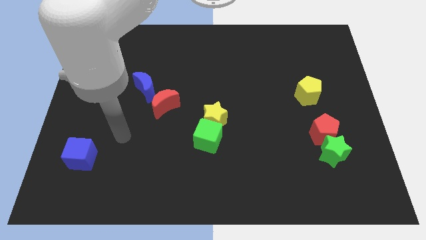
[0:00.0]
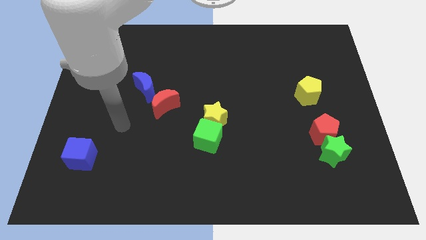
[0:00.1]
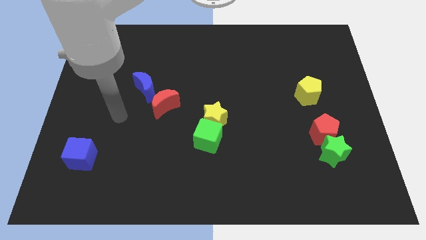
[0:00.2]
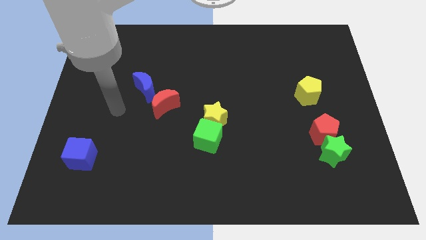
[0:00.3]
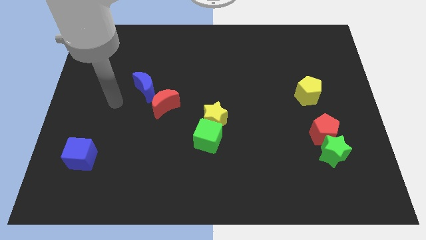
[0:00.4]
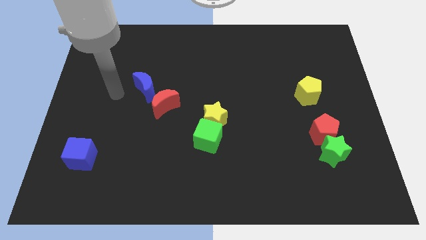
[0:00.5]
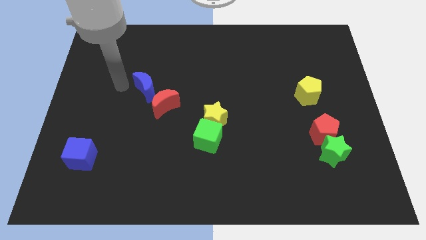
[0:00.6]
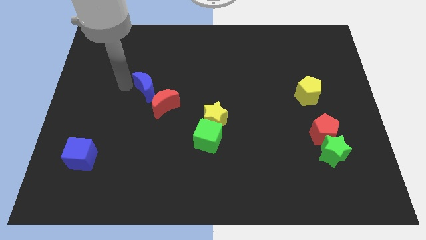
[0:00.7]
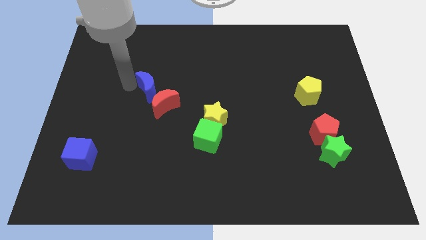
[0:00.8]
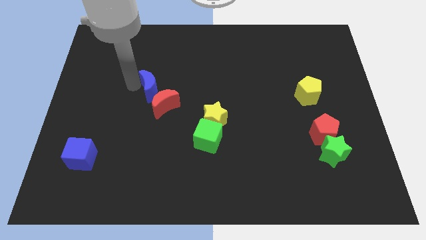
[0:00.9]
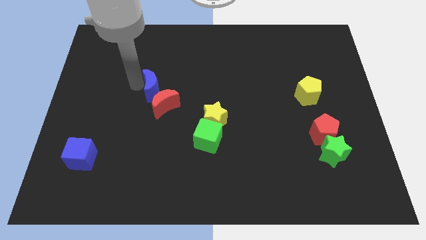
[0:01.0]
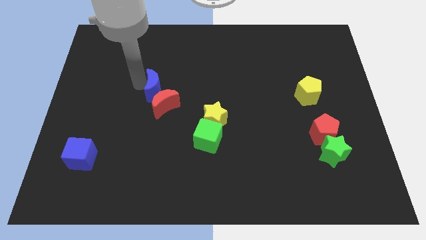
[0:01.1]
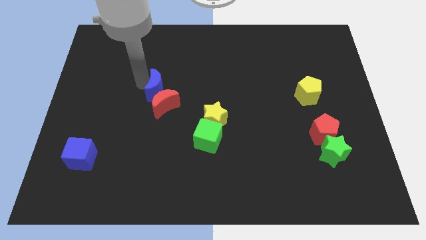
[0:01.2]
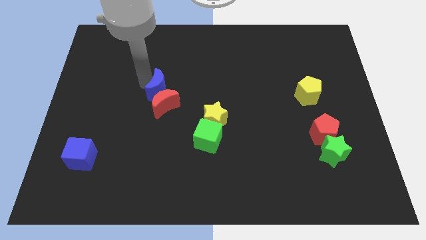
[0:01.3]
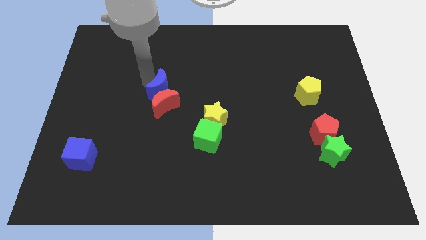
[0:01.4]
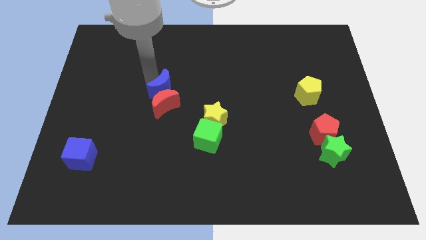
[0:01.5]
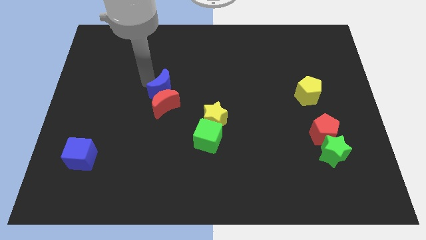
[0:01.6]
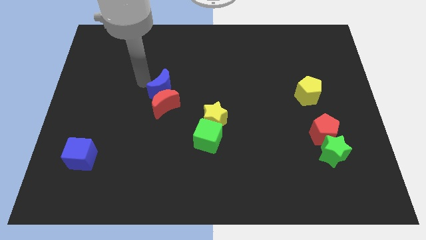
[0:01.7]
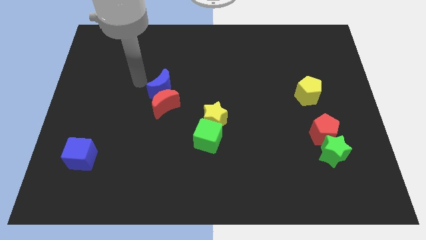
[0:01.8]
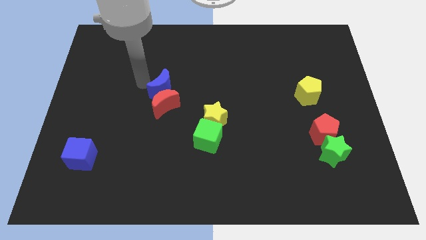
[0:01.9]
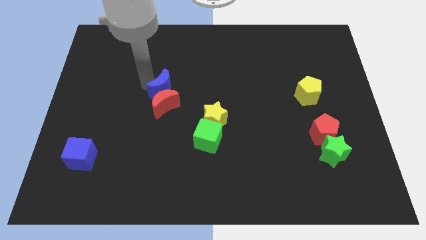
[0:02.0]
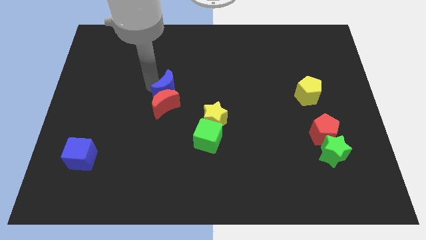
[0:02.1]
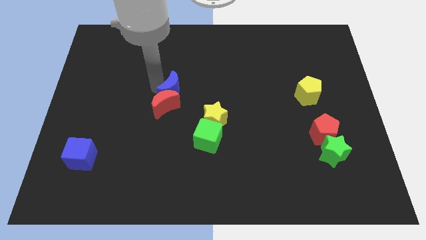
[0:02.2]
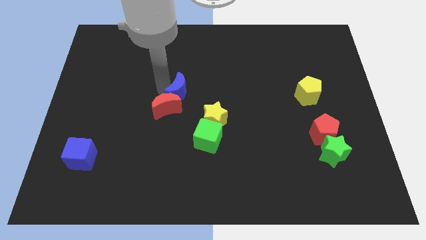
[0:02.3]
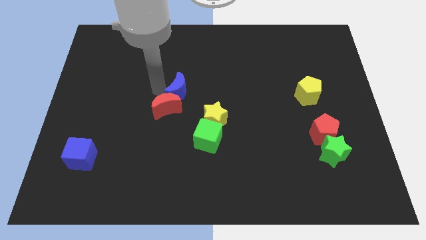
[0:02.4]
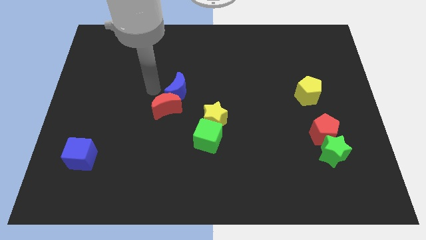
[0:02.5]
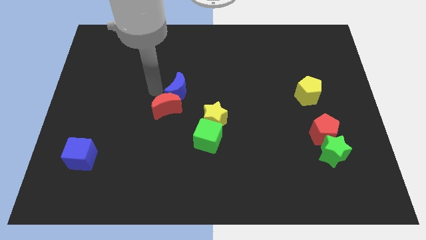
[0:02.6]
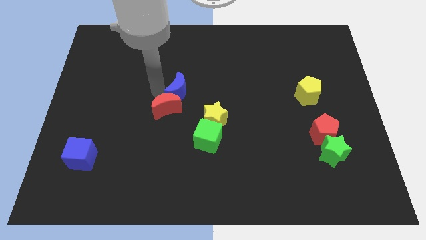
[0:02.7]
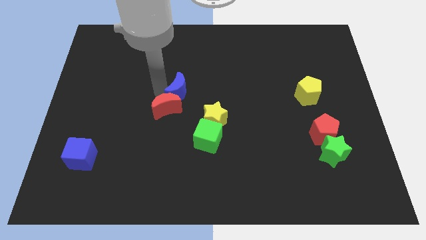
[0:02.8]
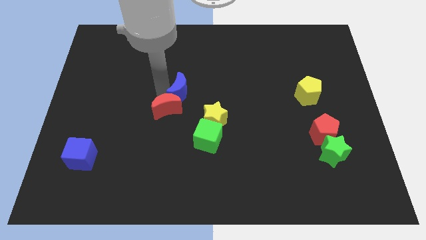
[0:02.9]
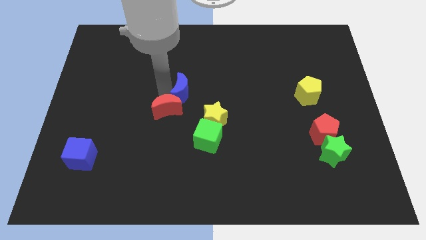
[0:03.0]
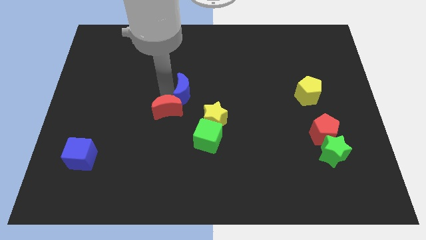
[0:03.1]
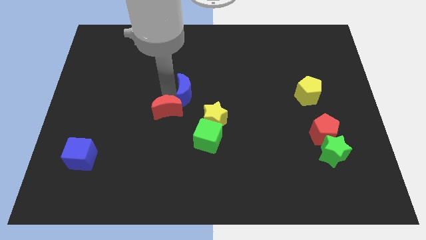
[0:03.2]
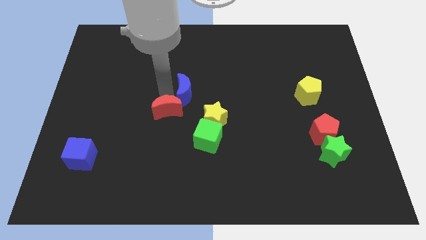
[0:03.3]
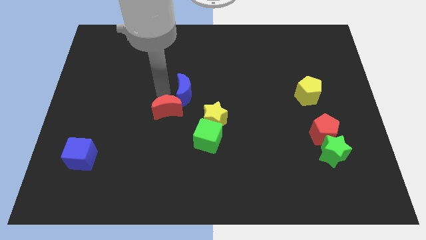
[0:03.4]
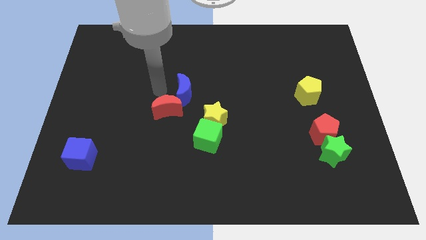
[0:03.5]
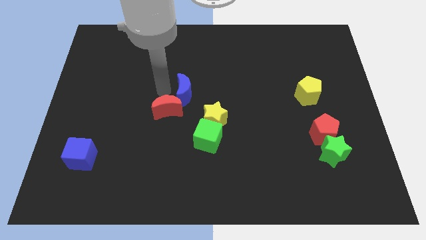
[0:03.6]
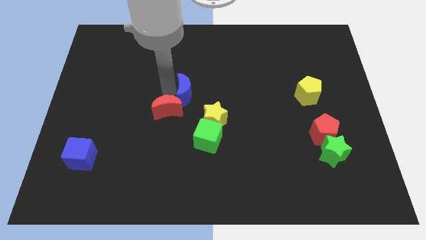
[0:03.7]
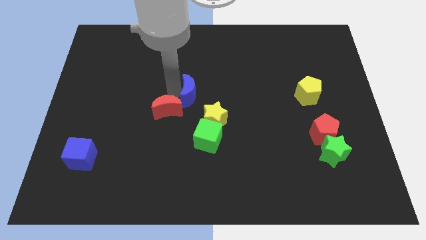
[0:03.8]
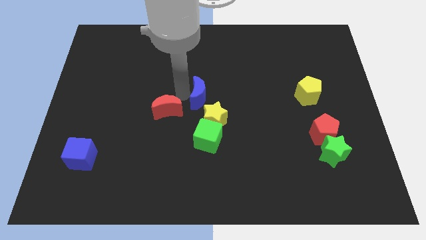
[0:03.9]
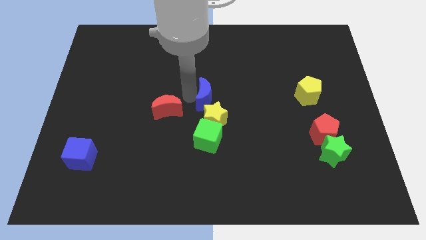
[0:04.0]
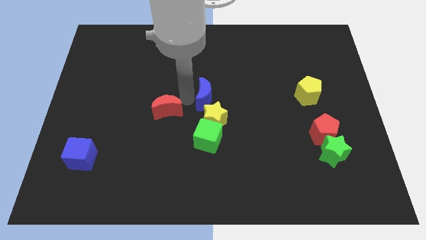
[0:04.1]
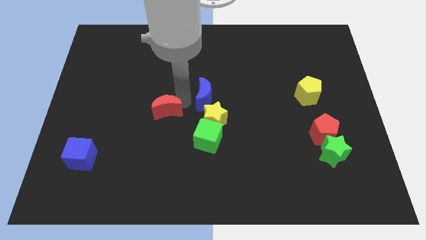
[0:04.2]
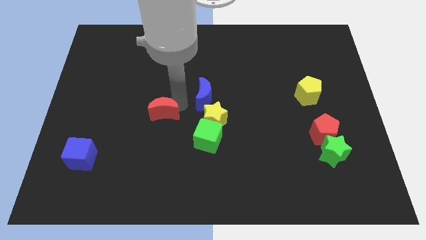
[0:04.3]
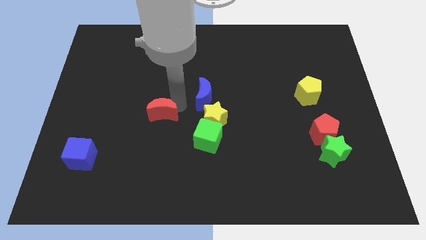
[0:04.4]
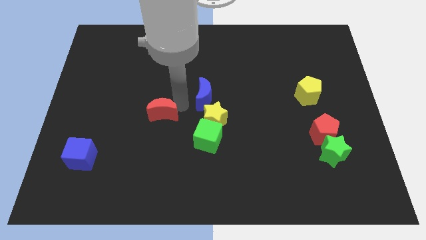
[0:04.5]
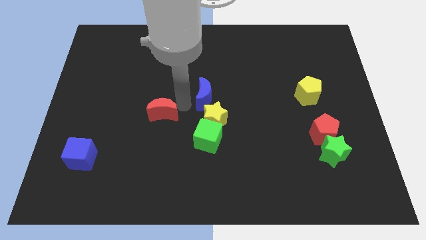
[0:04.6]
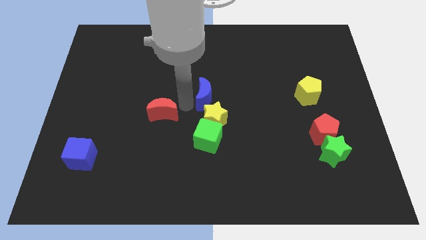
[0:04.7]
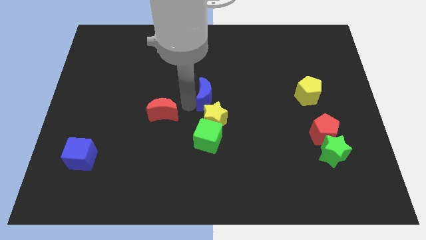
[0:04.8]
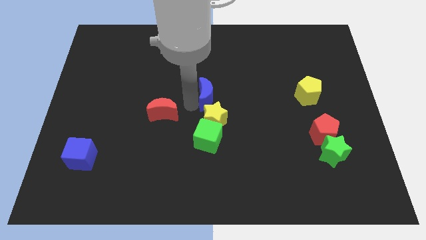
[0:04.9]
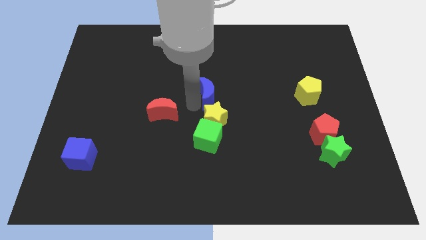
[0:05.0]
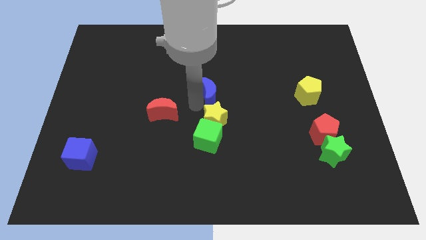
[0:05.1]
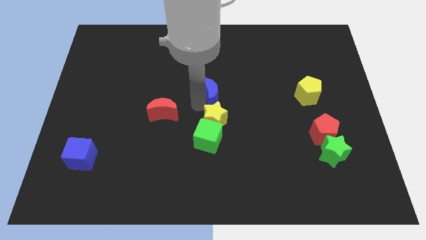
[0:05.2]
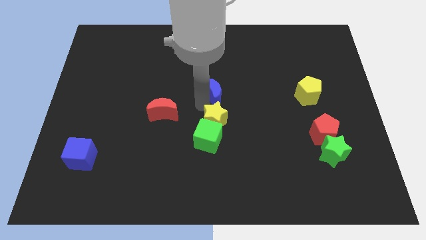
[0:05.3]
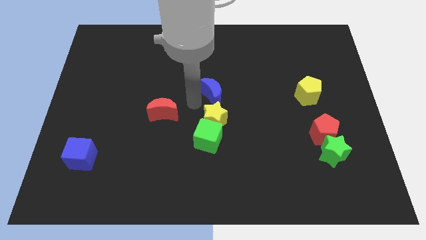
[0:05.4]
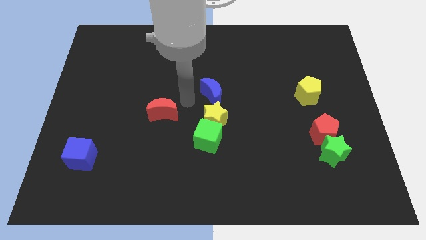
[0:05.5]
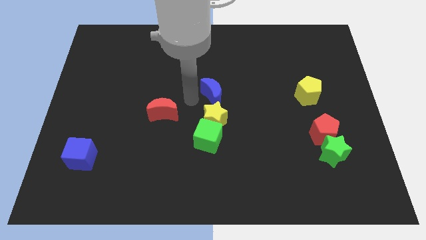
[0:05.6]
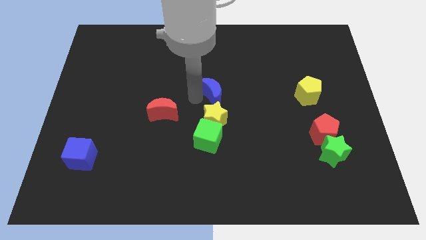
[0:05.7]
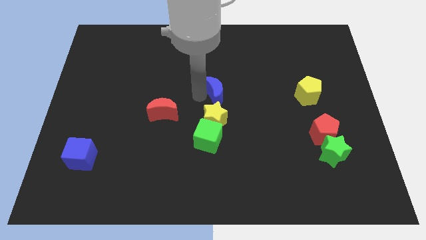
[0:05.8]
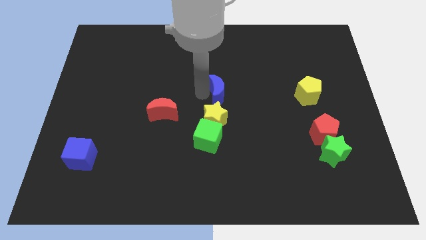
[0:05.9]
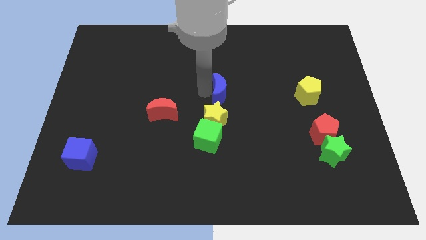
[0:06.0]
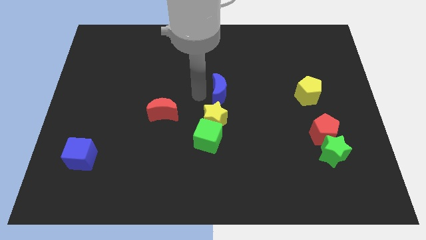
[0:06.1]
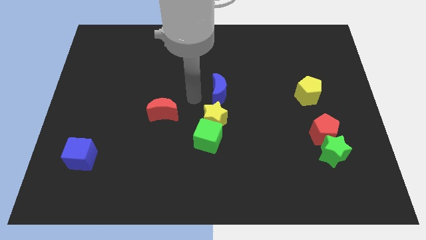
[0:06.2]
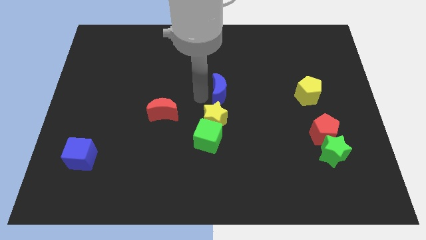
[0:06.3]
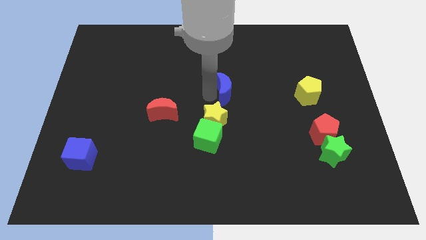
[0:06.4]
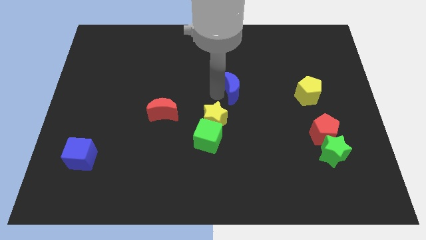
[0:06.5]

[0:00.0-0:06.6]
slide the blue moon to the right

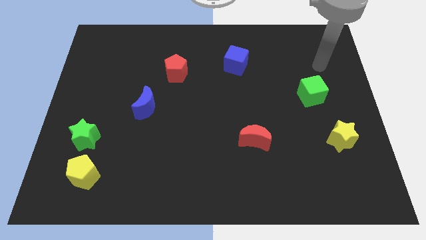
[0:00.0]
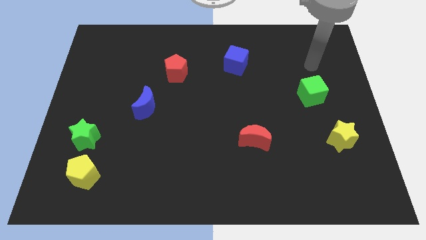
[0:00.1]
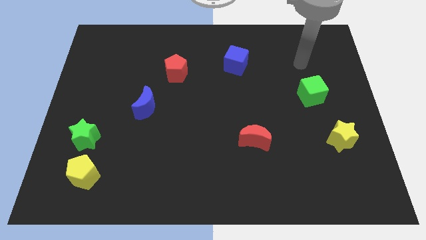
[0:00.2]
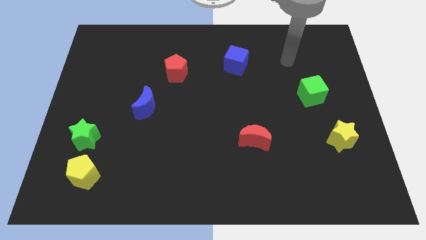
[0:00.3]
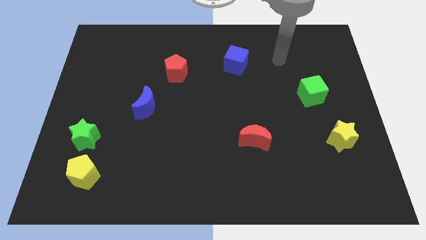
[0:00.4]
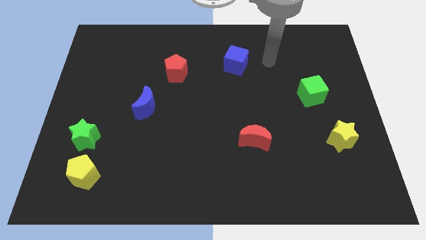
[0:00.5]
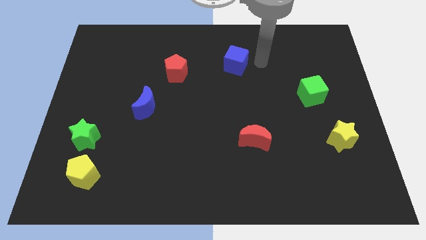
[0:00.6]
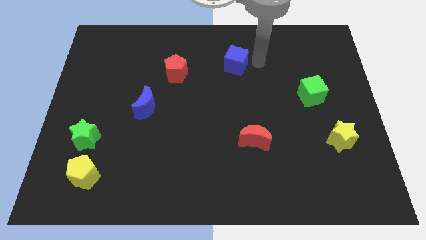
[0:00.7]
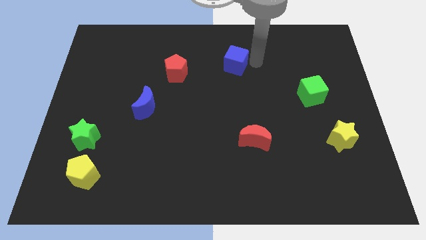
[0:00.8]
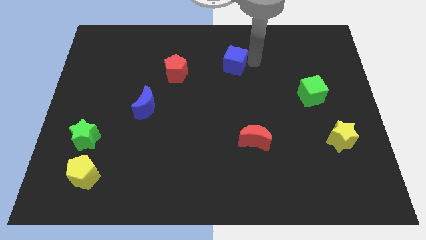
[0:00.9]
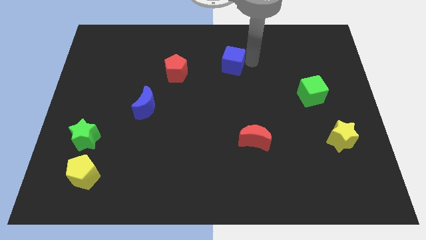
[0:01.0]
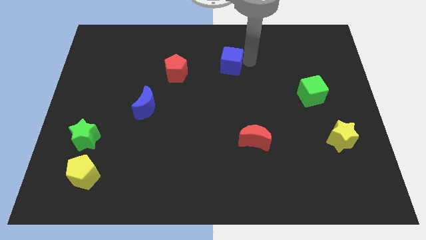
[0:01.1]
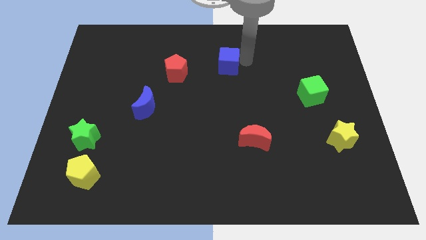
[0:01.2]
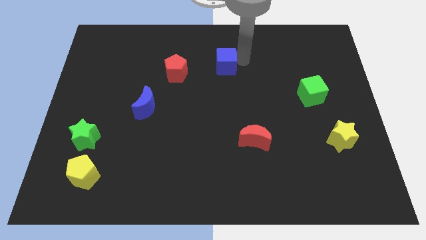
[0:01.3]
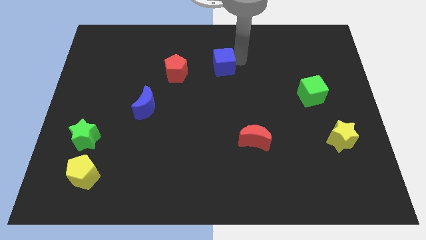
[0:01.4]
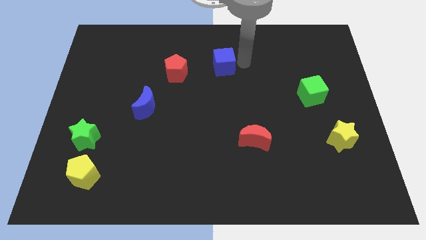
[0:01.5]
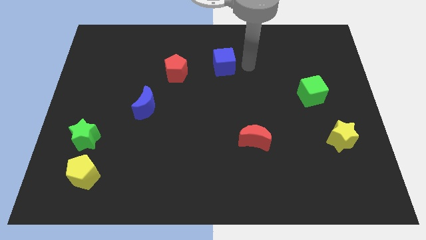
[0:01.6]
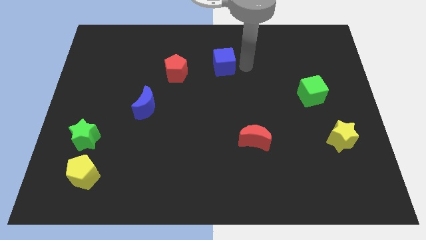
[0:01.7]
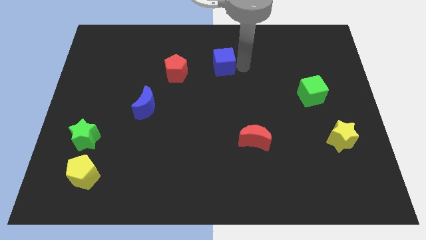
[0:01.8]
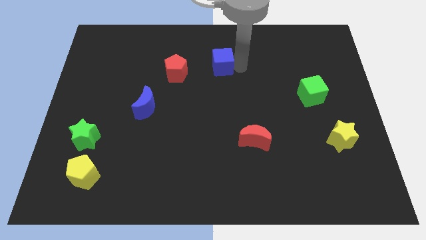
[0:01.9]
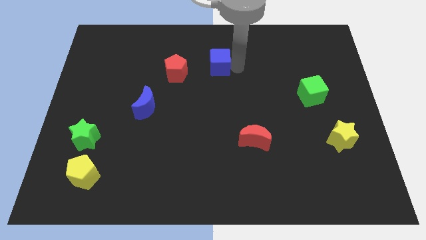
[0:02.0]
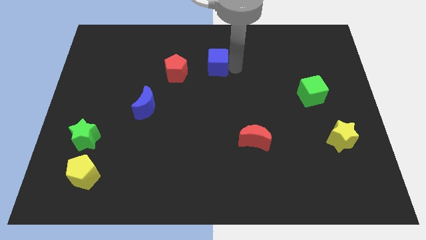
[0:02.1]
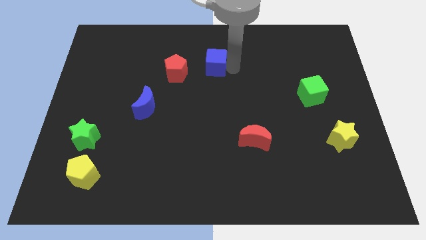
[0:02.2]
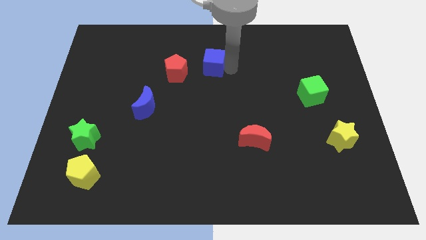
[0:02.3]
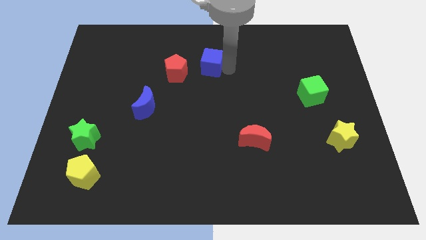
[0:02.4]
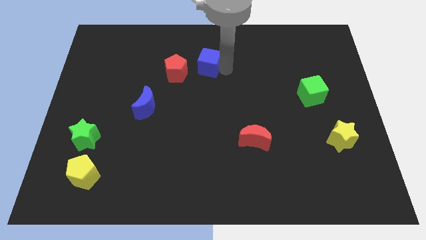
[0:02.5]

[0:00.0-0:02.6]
slightly slide the blue cube to the left
